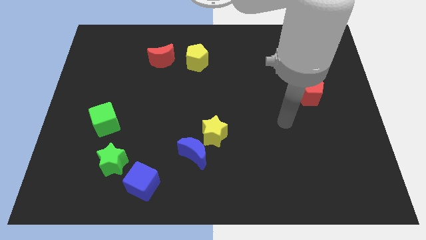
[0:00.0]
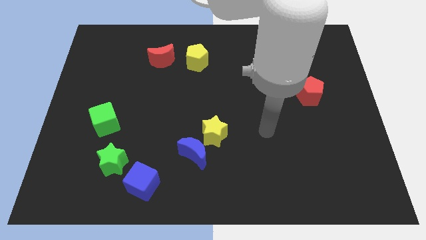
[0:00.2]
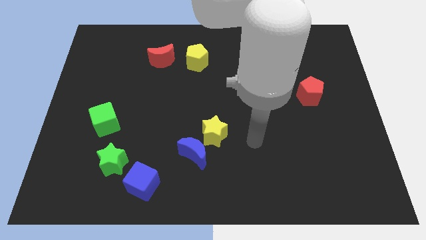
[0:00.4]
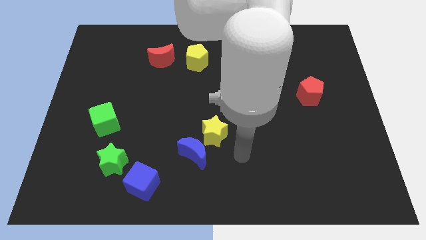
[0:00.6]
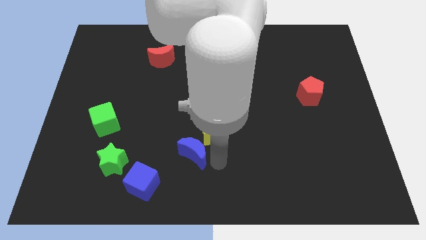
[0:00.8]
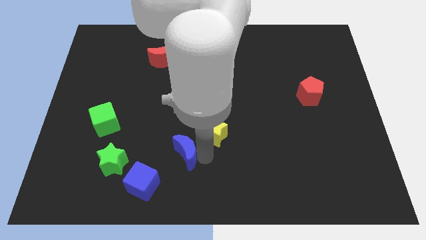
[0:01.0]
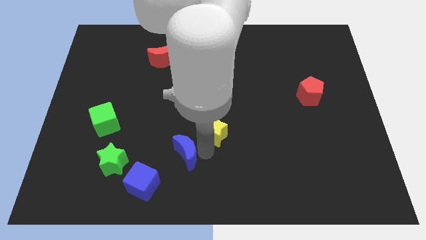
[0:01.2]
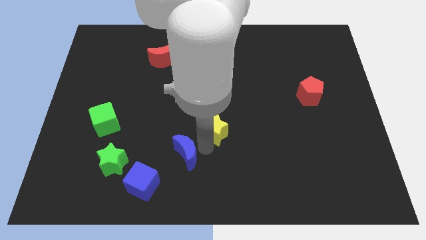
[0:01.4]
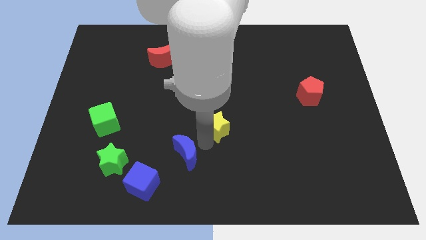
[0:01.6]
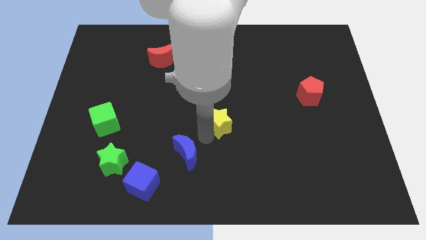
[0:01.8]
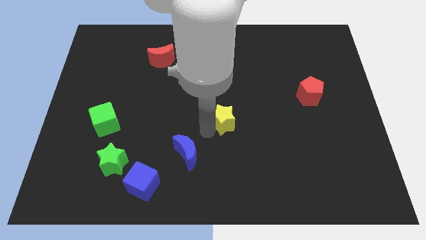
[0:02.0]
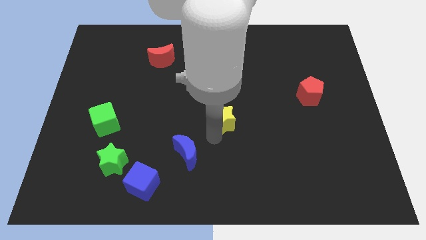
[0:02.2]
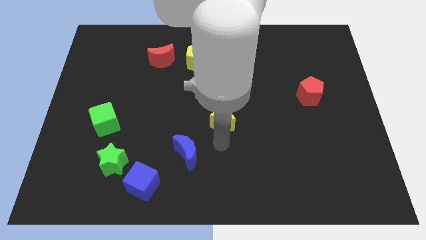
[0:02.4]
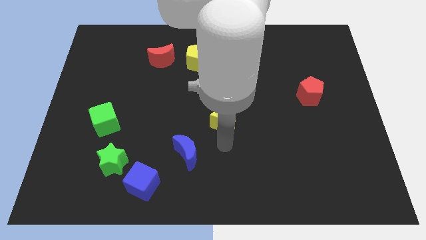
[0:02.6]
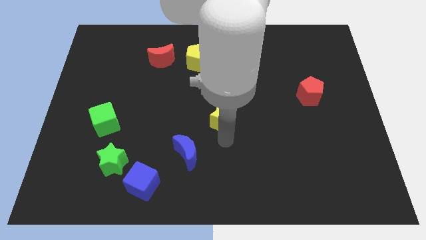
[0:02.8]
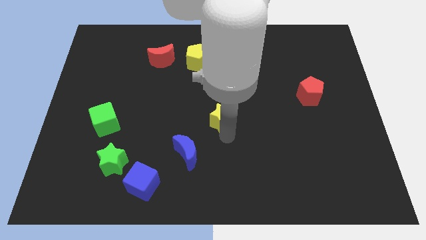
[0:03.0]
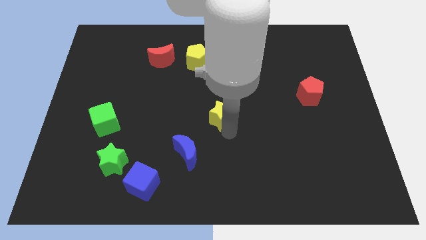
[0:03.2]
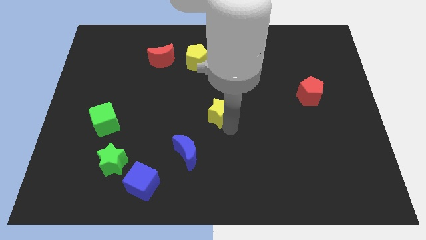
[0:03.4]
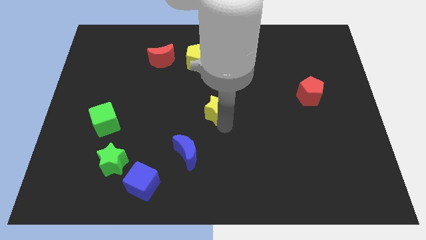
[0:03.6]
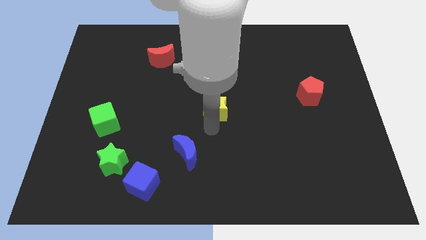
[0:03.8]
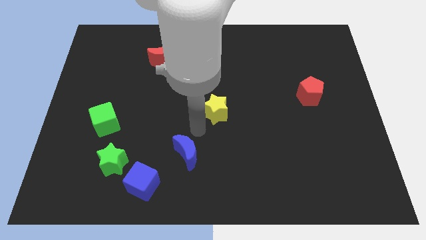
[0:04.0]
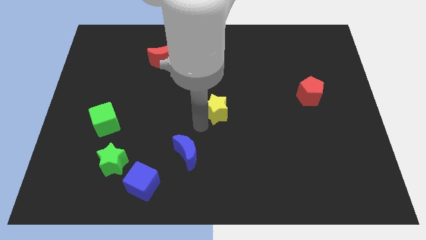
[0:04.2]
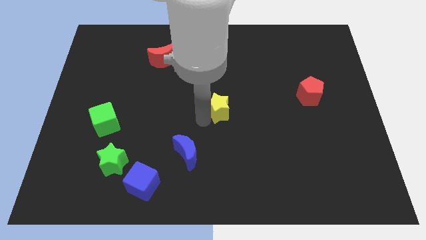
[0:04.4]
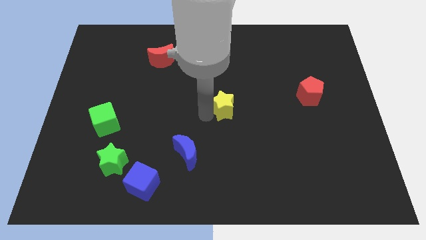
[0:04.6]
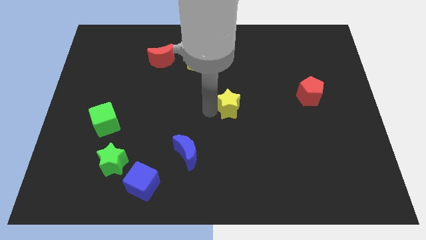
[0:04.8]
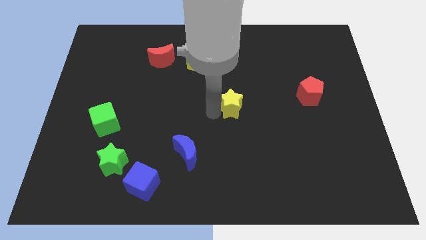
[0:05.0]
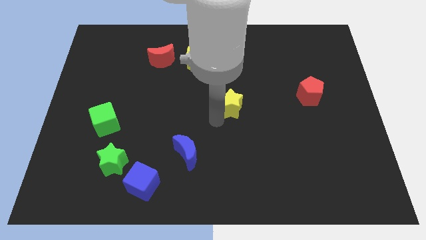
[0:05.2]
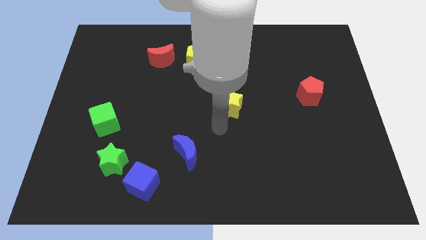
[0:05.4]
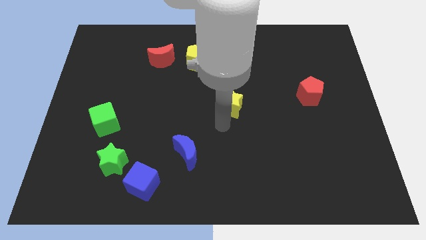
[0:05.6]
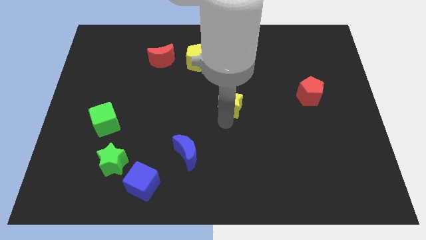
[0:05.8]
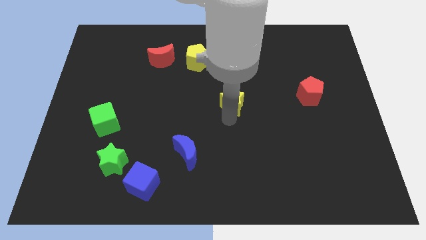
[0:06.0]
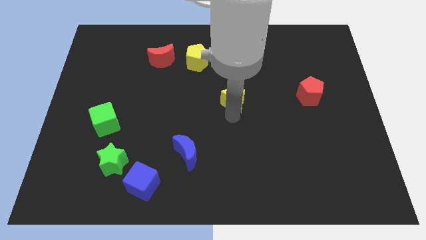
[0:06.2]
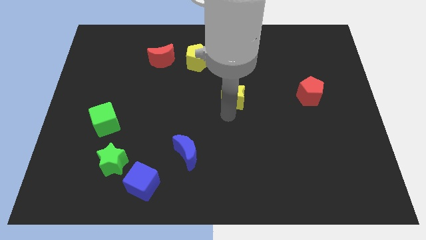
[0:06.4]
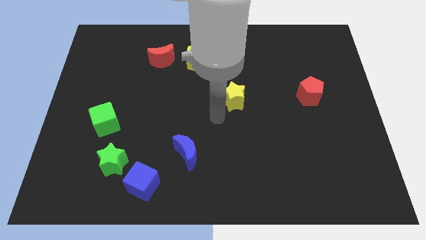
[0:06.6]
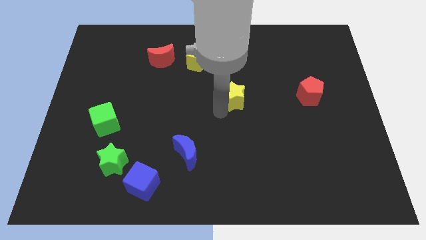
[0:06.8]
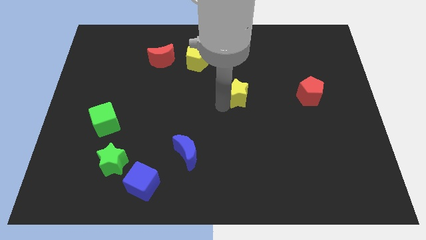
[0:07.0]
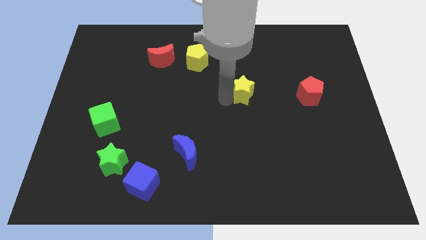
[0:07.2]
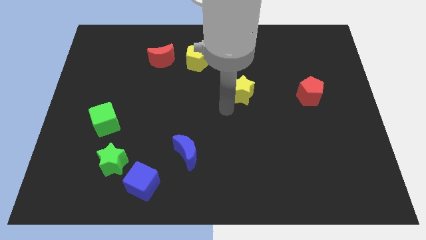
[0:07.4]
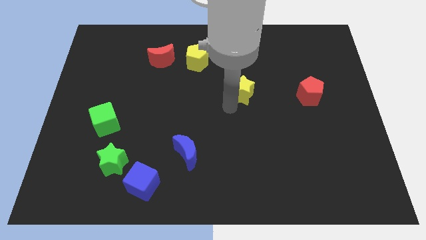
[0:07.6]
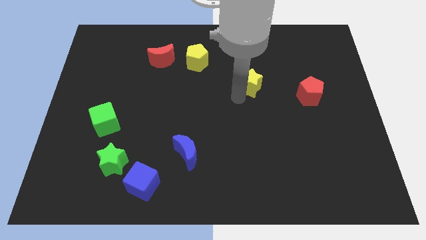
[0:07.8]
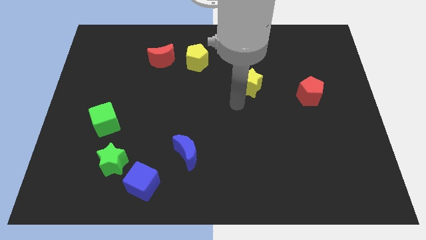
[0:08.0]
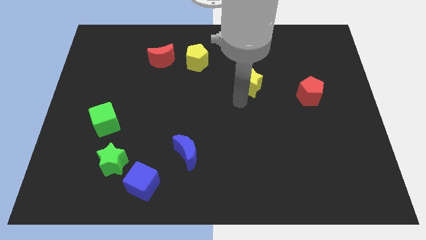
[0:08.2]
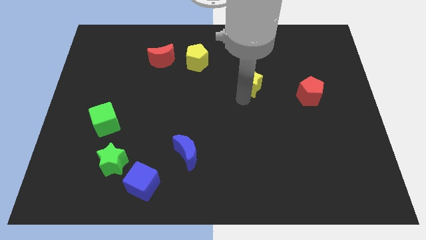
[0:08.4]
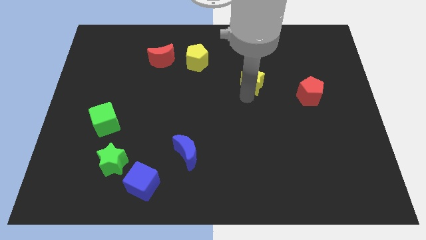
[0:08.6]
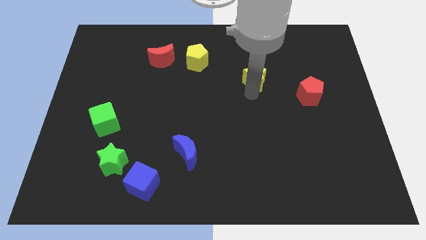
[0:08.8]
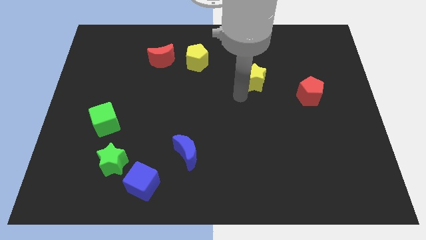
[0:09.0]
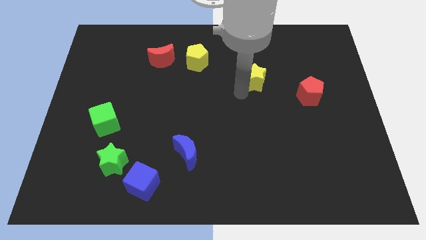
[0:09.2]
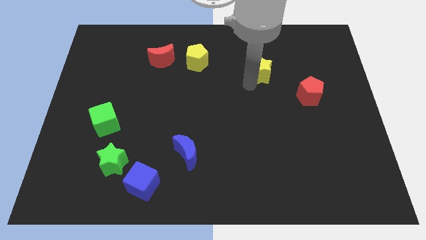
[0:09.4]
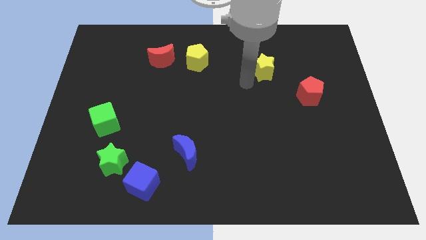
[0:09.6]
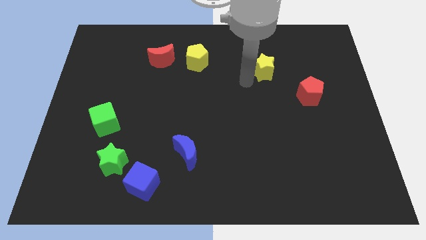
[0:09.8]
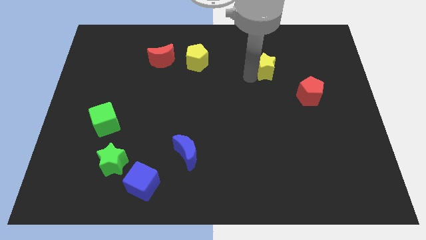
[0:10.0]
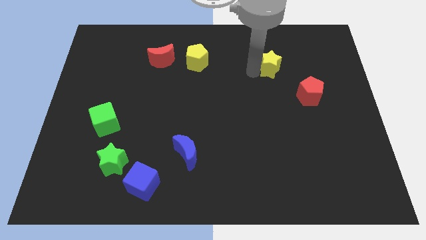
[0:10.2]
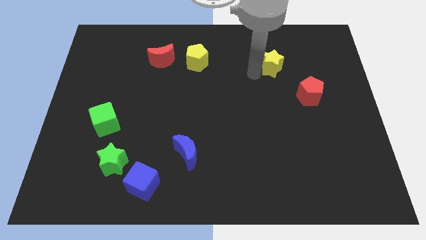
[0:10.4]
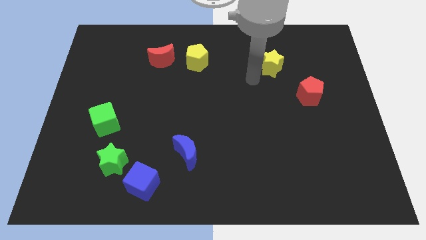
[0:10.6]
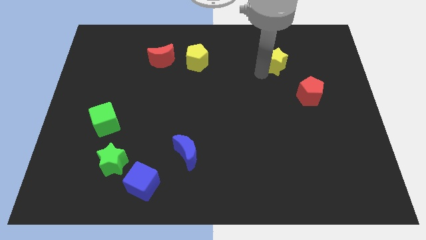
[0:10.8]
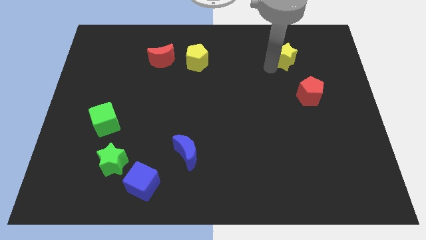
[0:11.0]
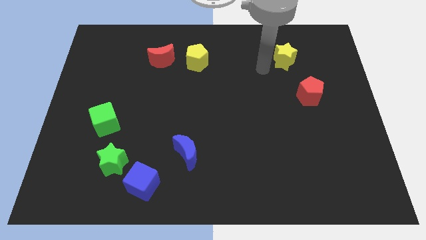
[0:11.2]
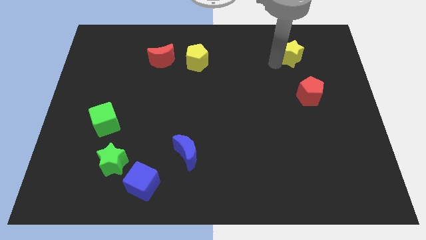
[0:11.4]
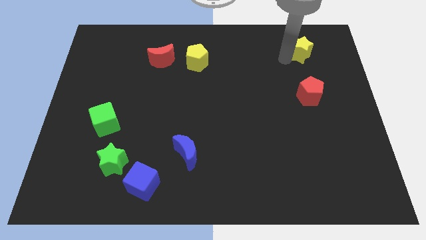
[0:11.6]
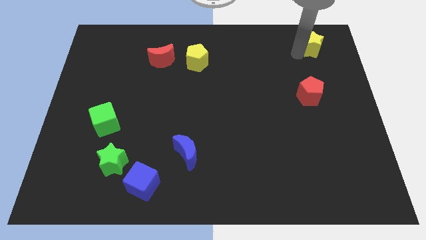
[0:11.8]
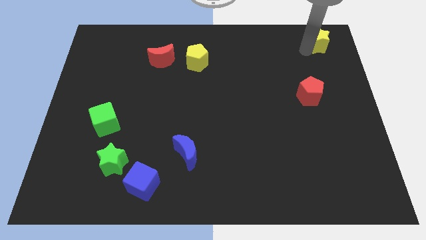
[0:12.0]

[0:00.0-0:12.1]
slide the yellow star to the top right of the board

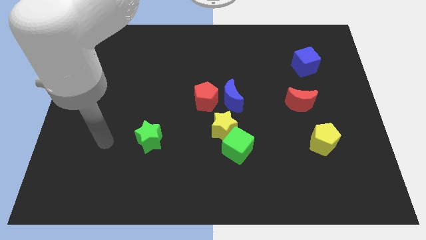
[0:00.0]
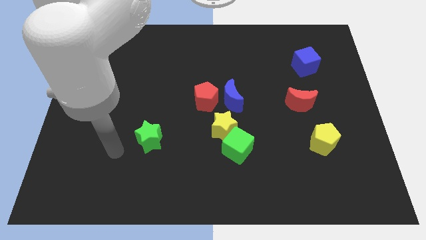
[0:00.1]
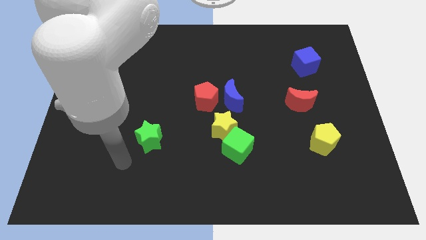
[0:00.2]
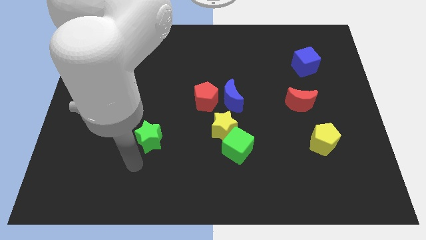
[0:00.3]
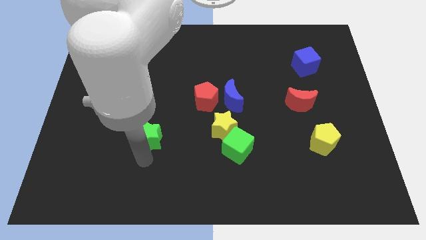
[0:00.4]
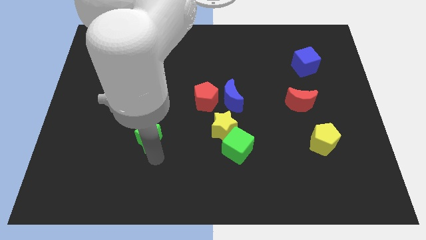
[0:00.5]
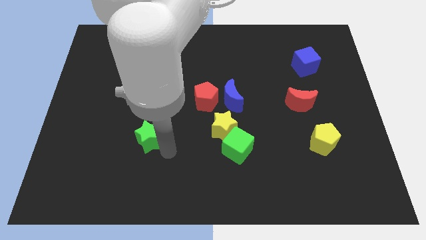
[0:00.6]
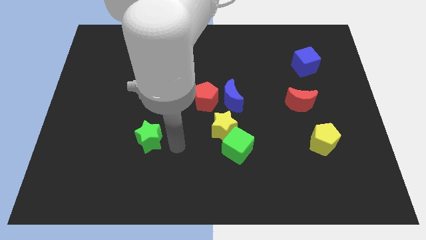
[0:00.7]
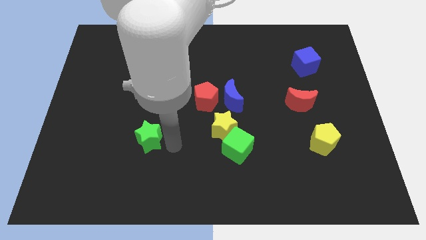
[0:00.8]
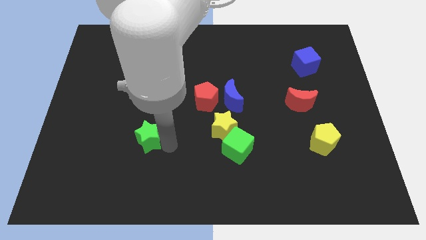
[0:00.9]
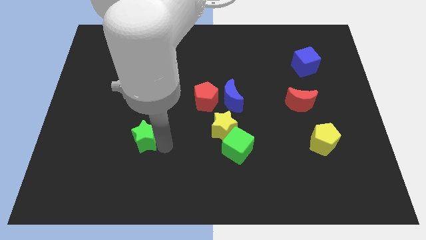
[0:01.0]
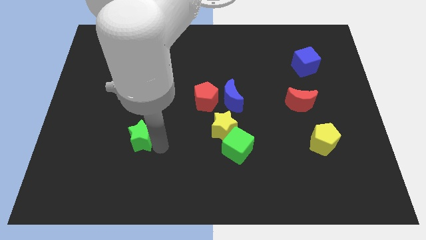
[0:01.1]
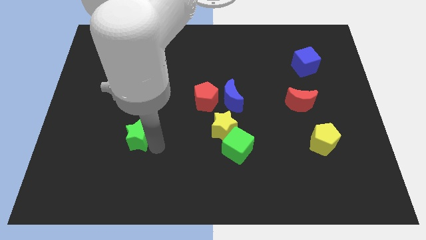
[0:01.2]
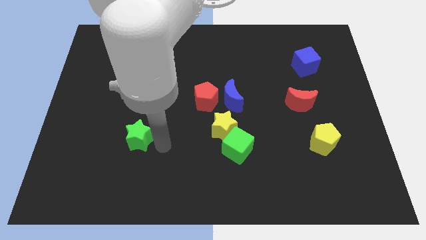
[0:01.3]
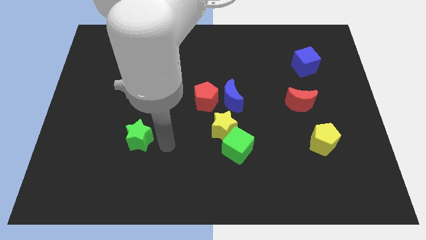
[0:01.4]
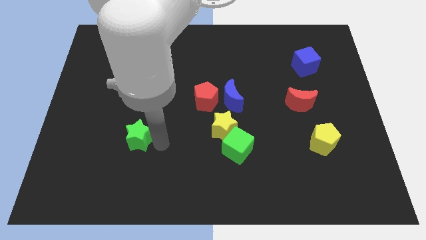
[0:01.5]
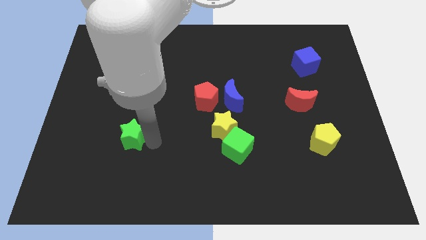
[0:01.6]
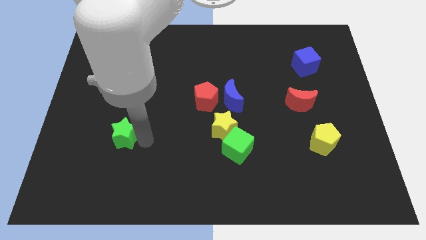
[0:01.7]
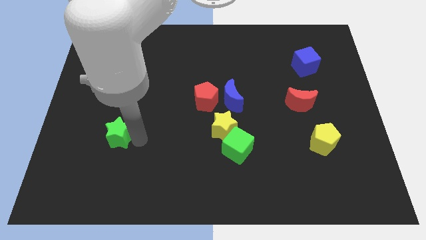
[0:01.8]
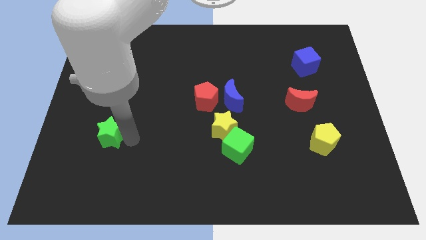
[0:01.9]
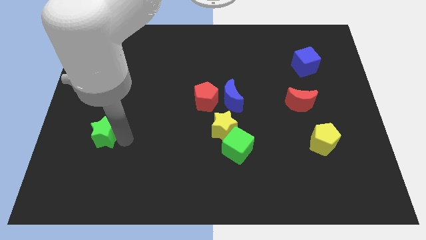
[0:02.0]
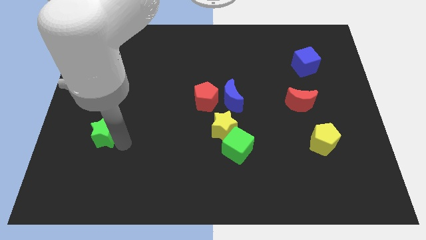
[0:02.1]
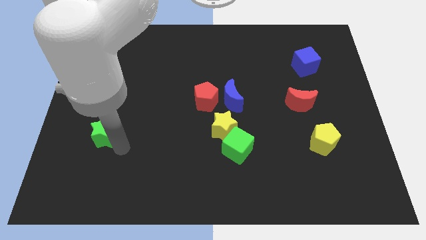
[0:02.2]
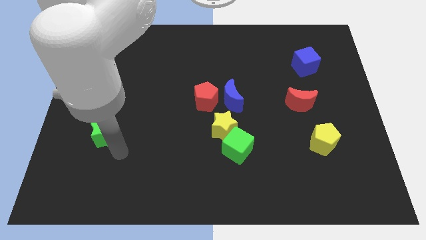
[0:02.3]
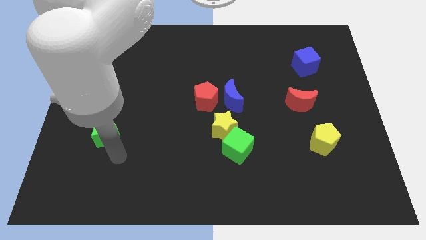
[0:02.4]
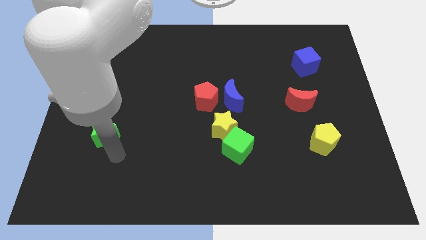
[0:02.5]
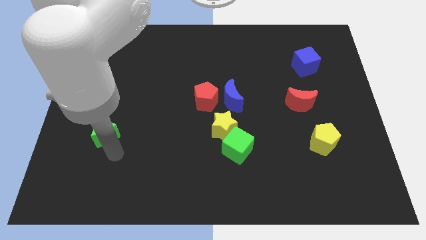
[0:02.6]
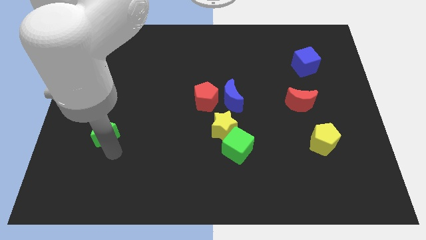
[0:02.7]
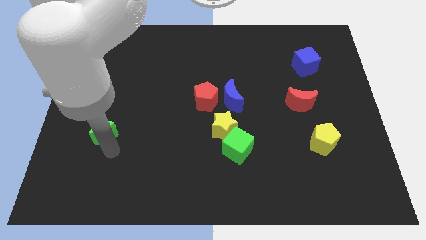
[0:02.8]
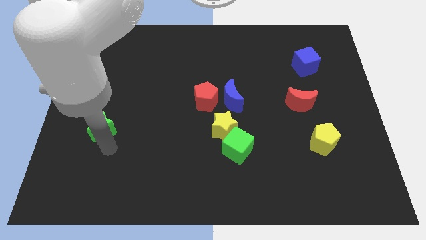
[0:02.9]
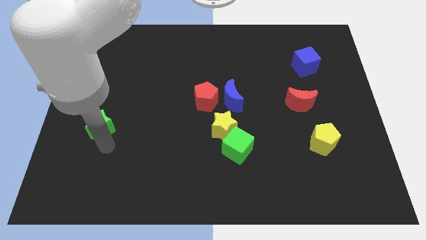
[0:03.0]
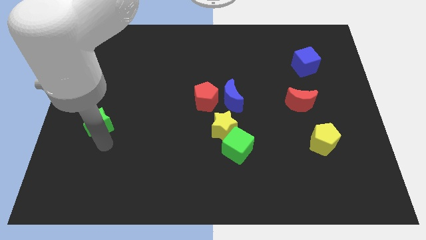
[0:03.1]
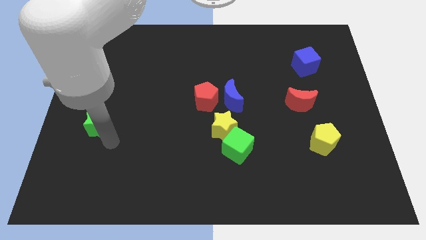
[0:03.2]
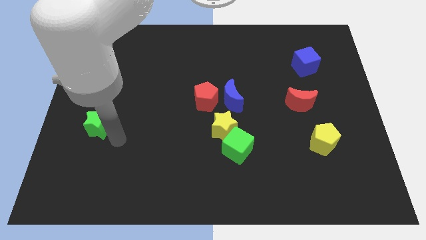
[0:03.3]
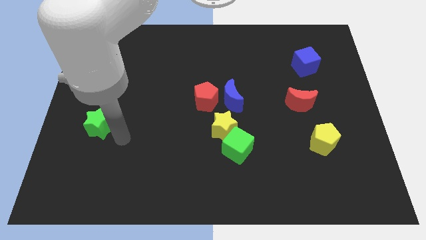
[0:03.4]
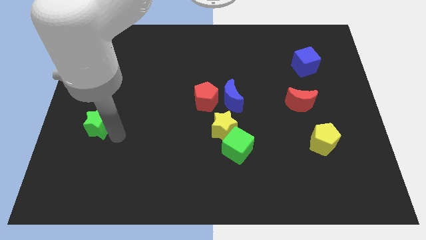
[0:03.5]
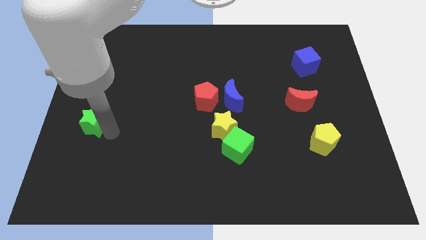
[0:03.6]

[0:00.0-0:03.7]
push the green star to the left side of the board
